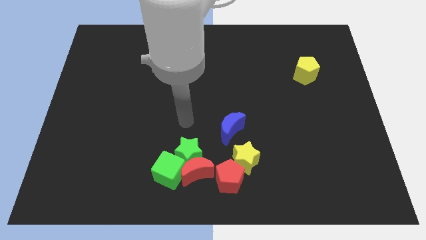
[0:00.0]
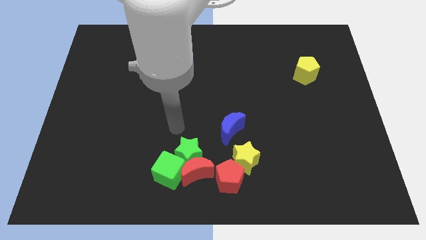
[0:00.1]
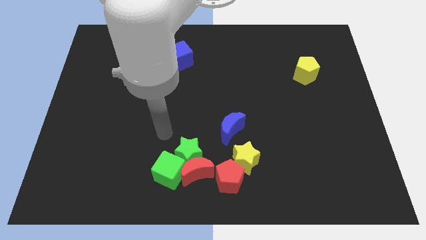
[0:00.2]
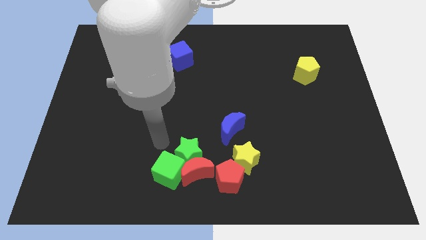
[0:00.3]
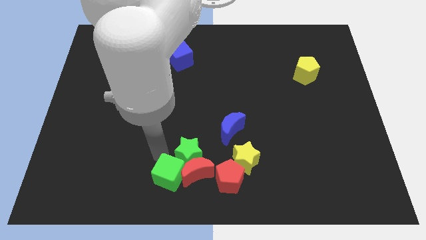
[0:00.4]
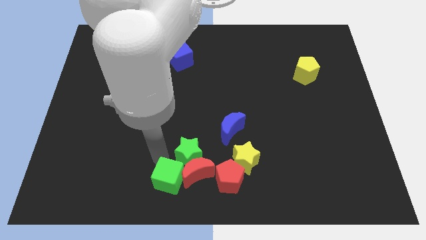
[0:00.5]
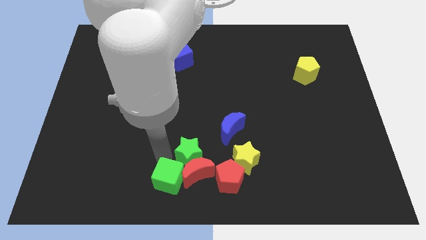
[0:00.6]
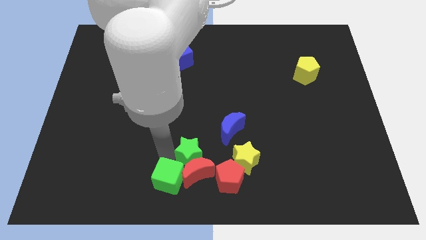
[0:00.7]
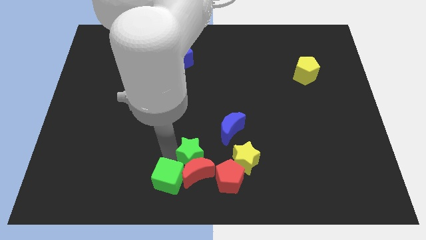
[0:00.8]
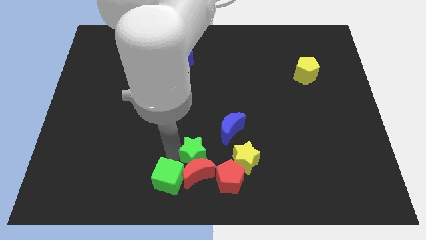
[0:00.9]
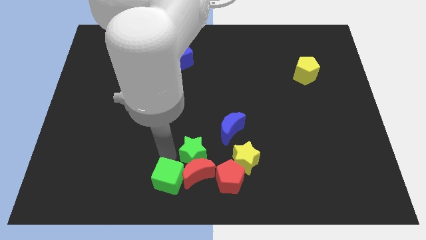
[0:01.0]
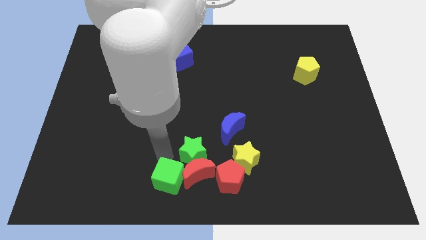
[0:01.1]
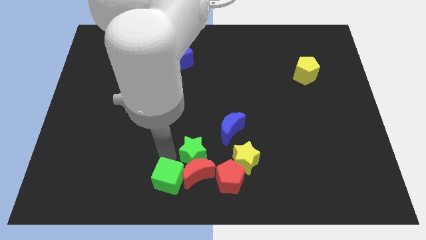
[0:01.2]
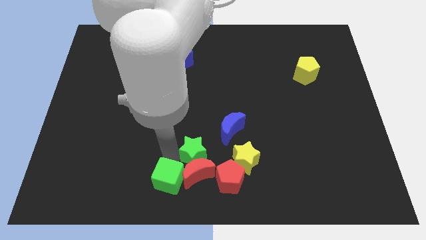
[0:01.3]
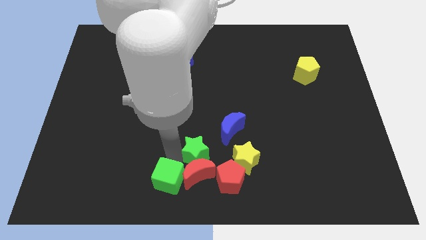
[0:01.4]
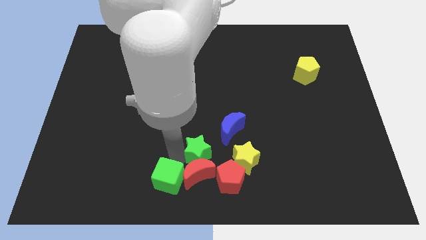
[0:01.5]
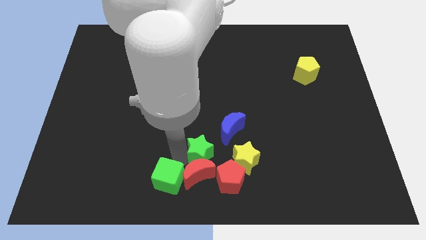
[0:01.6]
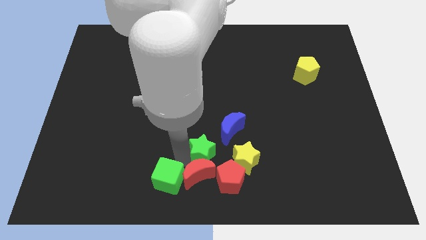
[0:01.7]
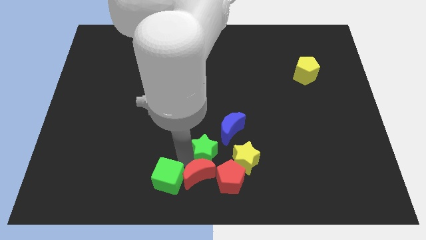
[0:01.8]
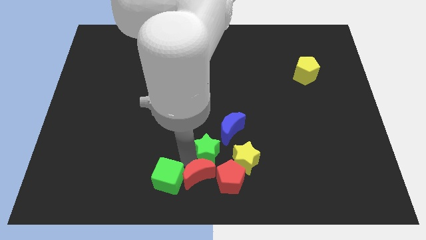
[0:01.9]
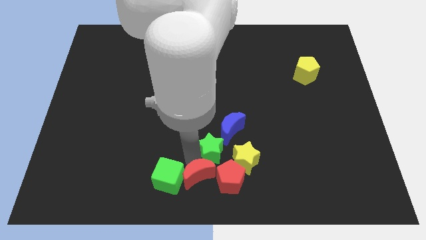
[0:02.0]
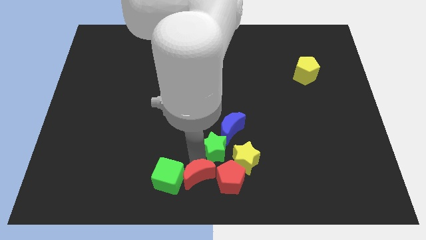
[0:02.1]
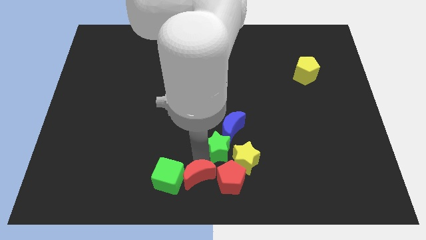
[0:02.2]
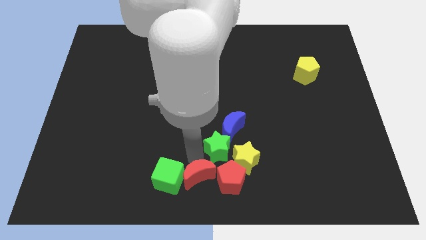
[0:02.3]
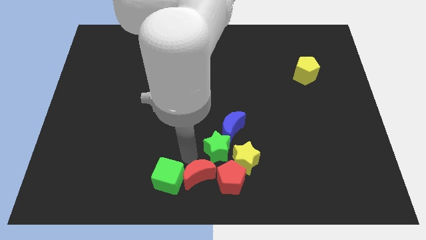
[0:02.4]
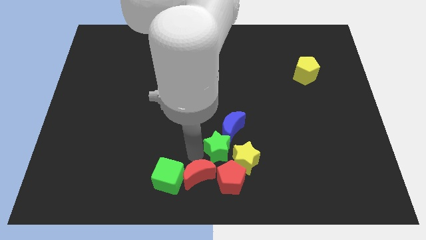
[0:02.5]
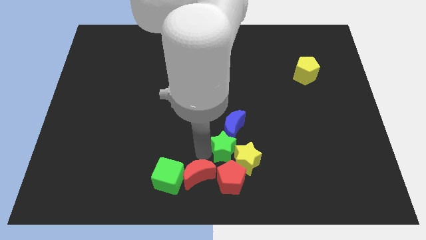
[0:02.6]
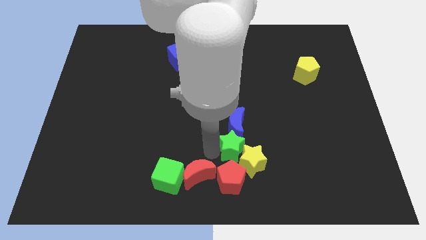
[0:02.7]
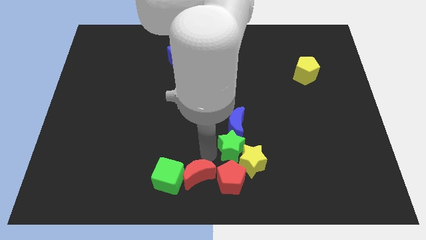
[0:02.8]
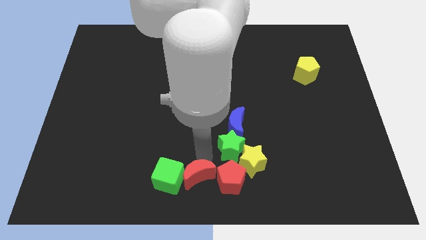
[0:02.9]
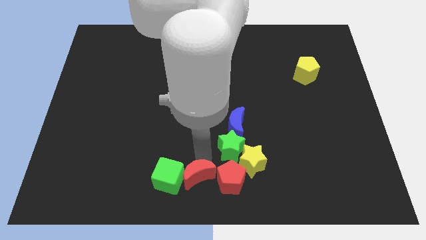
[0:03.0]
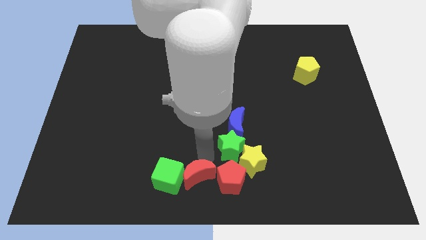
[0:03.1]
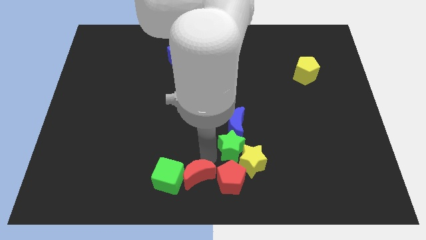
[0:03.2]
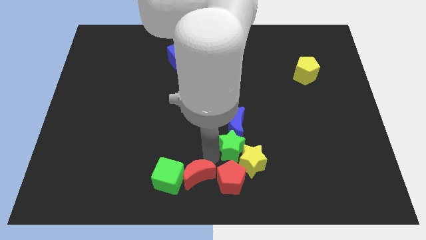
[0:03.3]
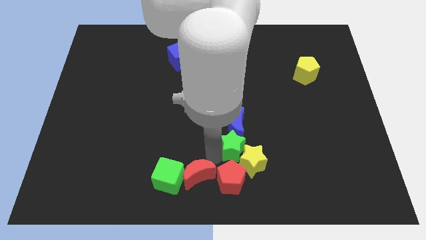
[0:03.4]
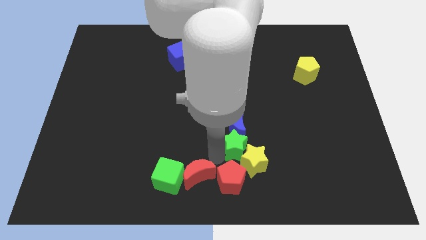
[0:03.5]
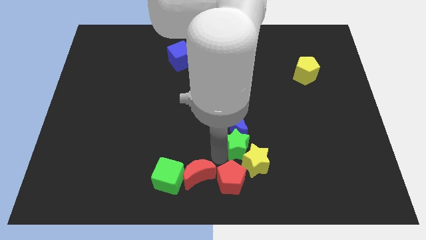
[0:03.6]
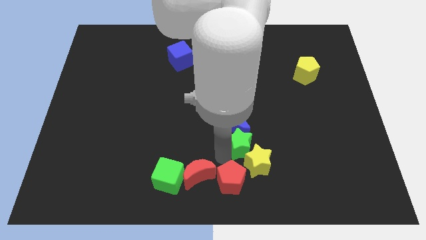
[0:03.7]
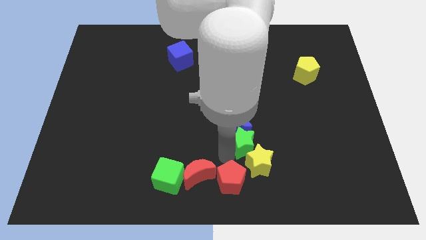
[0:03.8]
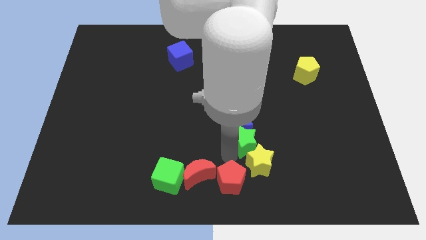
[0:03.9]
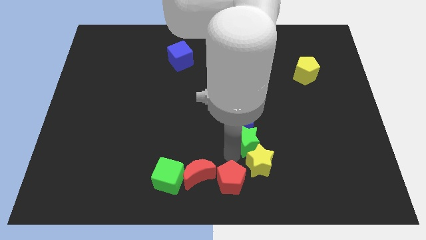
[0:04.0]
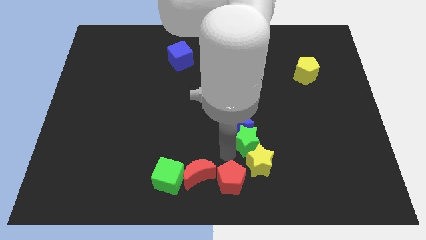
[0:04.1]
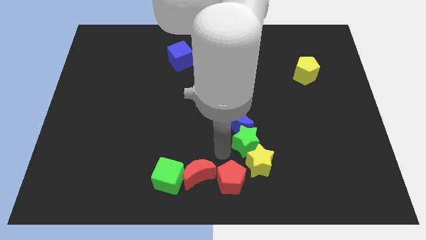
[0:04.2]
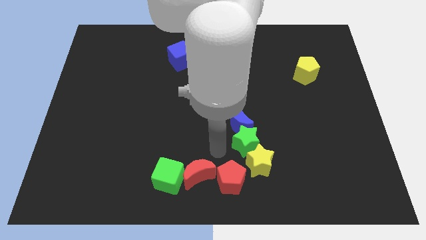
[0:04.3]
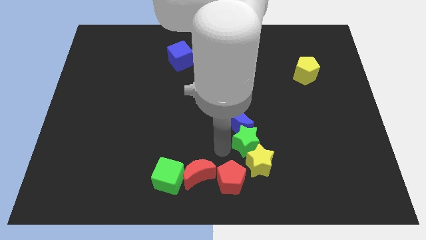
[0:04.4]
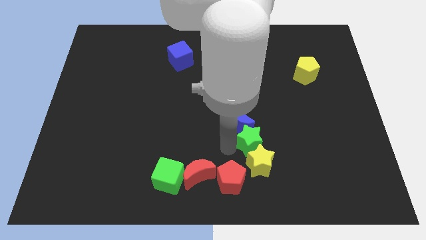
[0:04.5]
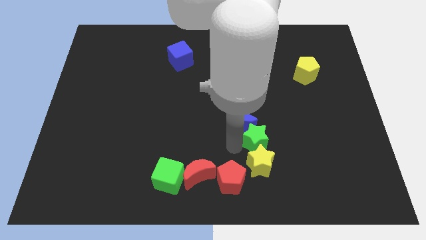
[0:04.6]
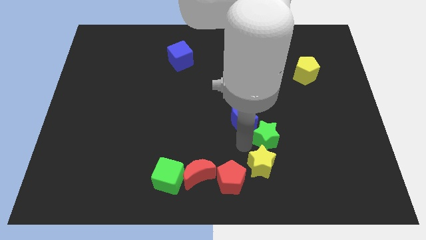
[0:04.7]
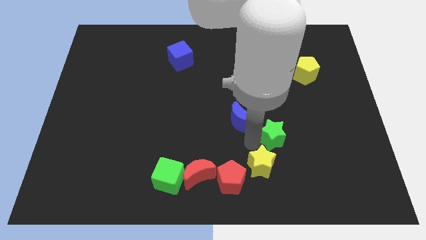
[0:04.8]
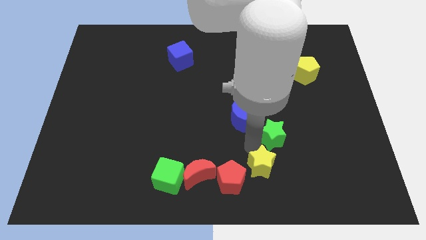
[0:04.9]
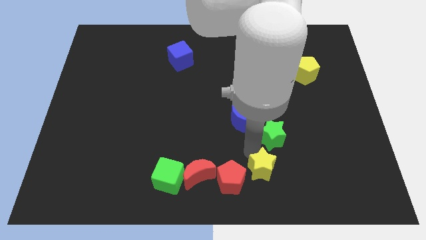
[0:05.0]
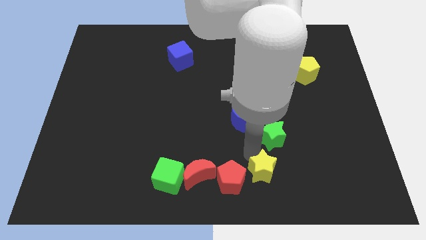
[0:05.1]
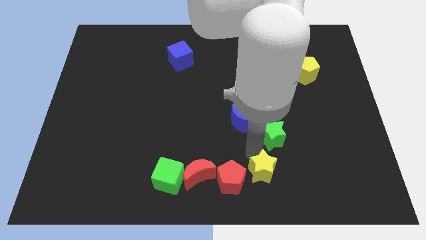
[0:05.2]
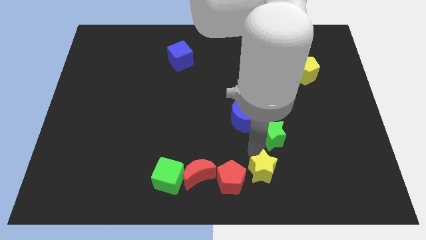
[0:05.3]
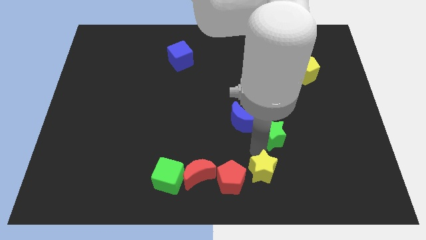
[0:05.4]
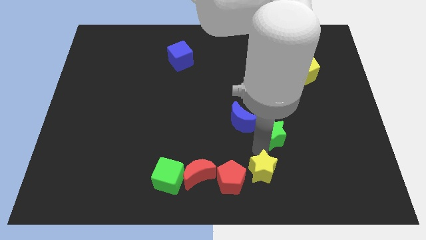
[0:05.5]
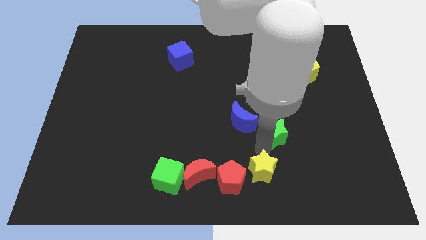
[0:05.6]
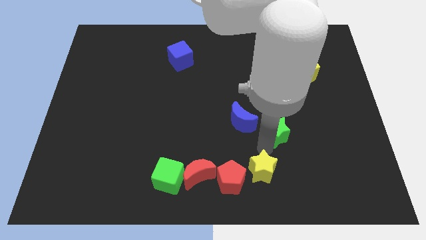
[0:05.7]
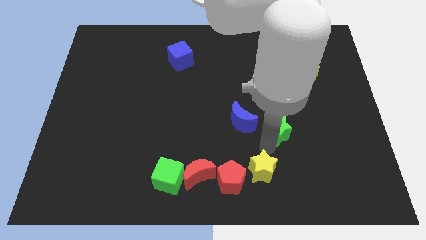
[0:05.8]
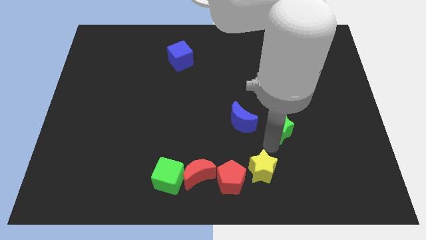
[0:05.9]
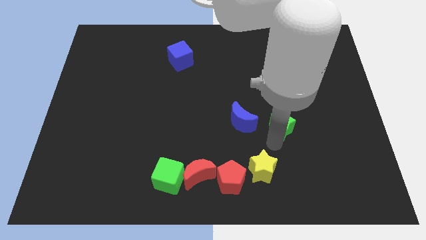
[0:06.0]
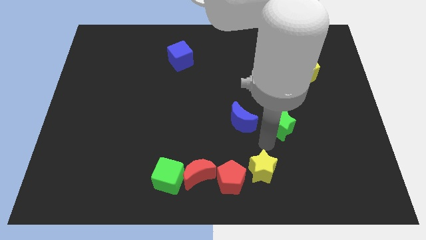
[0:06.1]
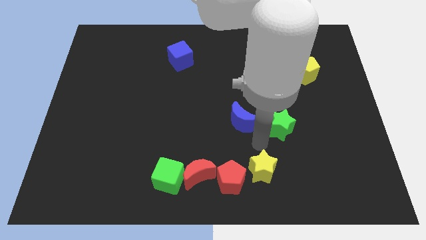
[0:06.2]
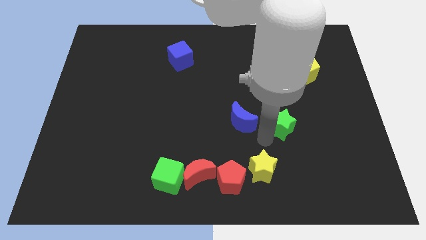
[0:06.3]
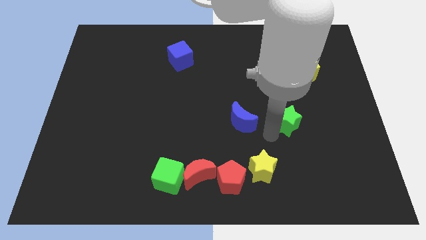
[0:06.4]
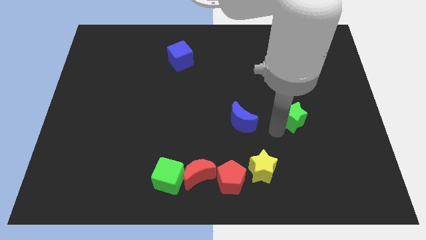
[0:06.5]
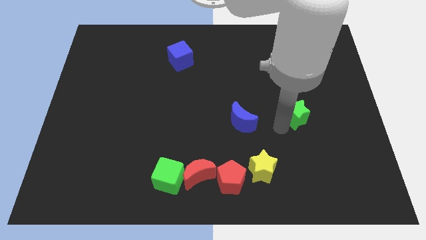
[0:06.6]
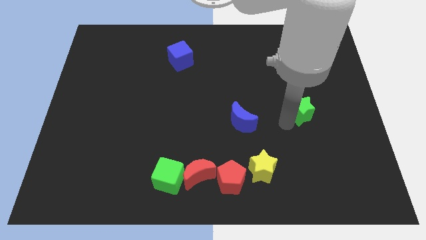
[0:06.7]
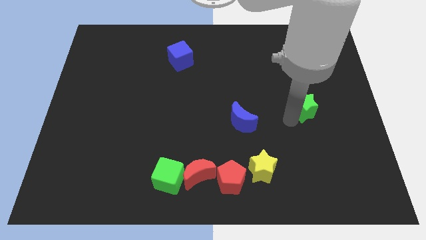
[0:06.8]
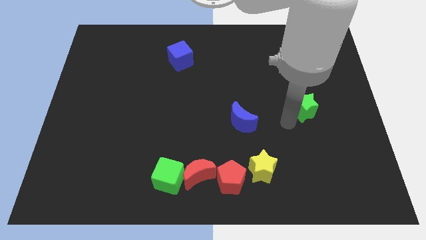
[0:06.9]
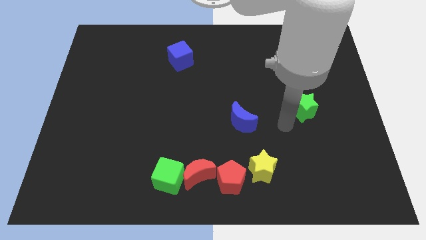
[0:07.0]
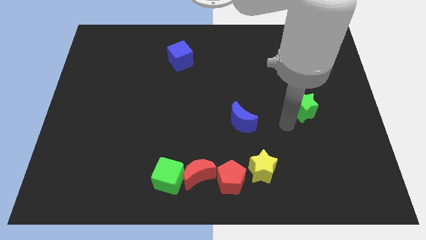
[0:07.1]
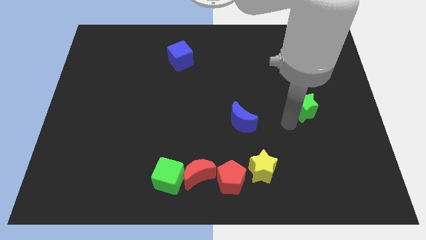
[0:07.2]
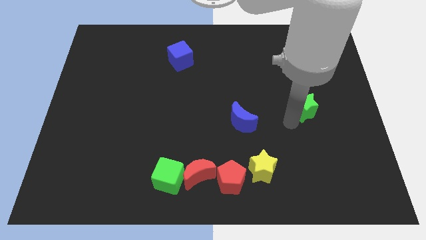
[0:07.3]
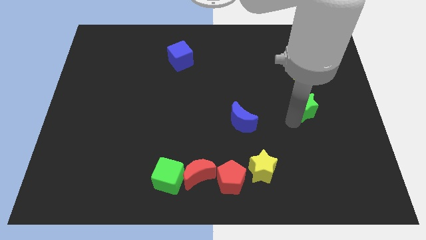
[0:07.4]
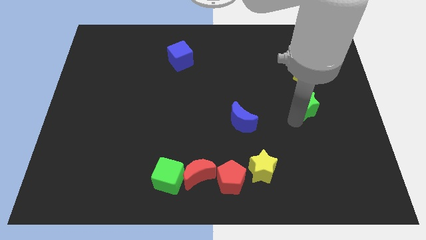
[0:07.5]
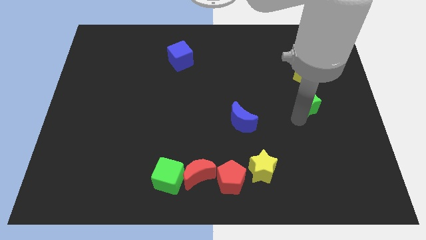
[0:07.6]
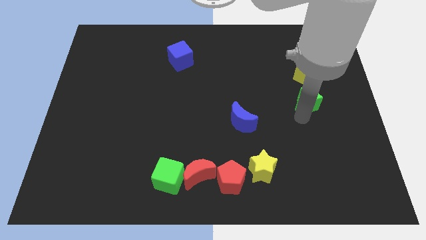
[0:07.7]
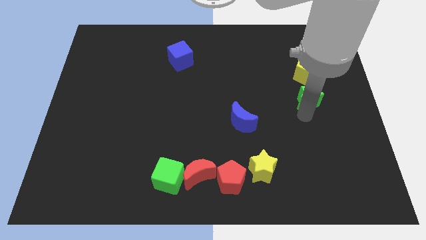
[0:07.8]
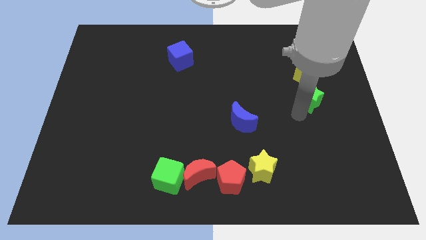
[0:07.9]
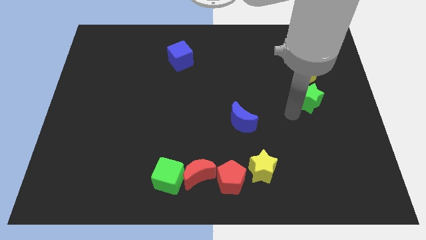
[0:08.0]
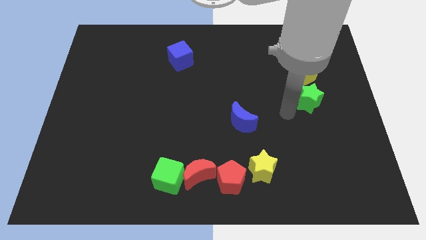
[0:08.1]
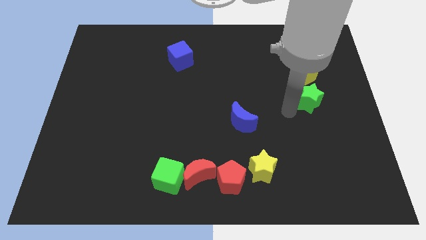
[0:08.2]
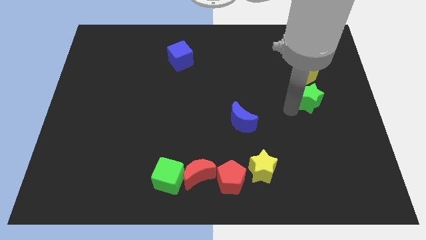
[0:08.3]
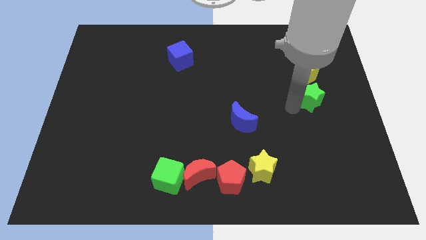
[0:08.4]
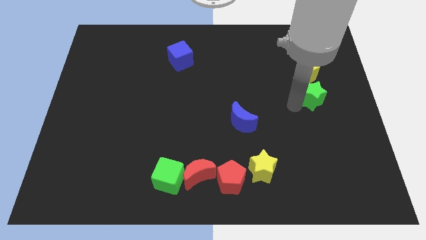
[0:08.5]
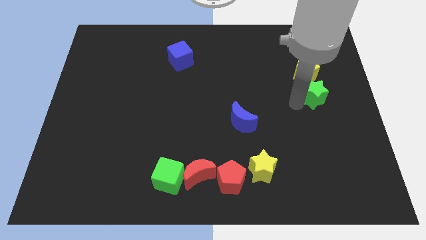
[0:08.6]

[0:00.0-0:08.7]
put the green star diagonally down and to the right of the yellow pentagon
